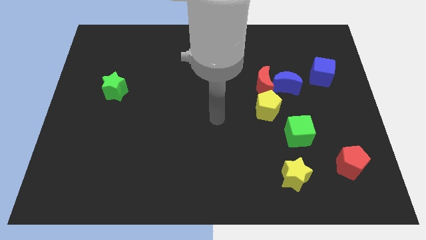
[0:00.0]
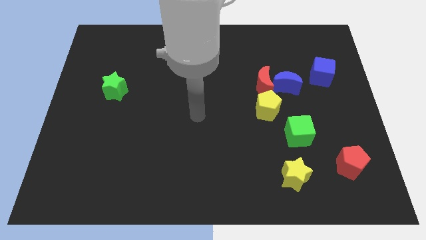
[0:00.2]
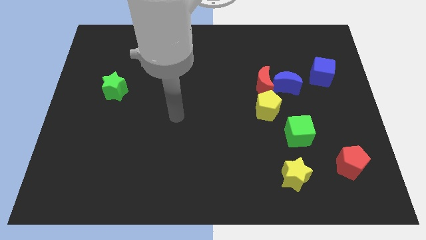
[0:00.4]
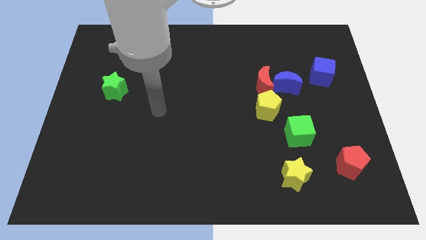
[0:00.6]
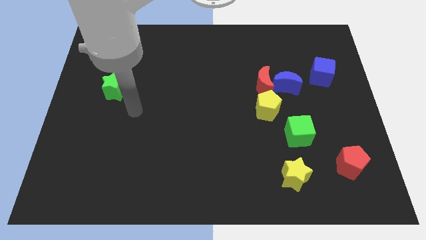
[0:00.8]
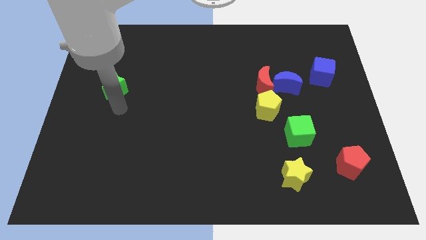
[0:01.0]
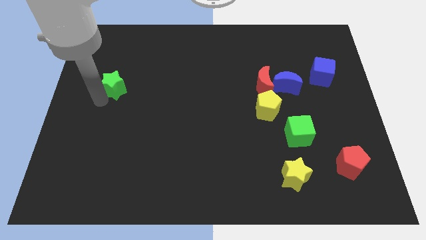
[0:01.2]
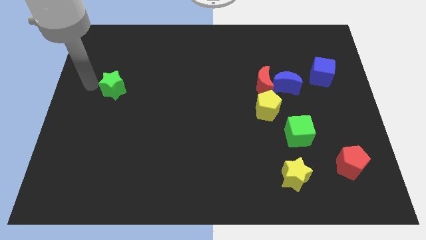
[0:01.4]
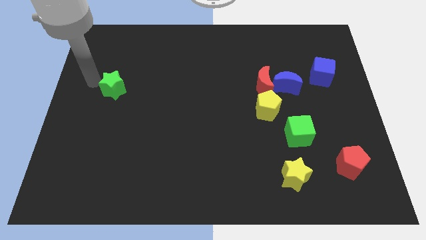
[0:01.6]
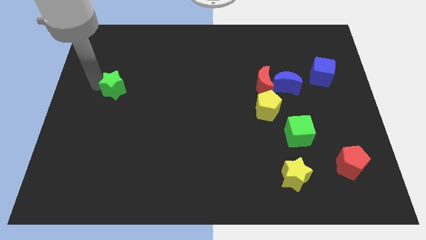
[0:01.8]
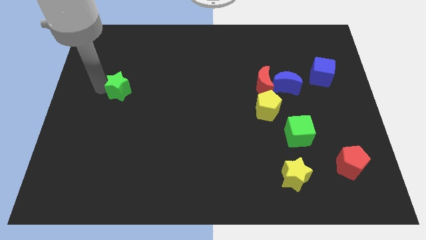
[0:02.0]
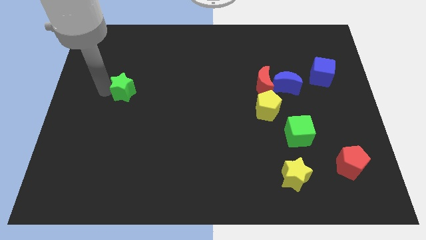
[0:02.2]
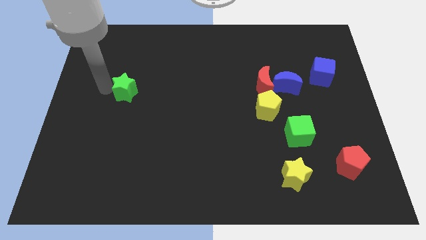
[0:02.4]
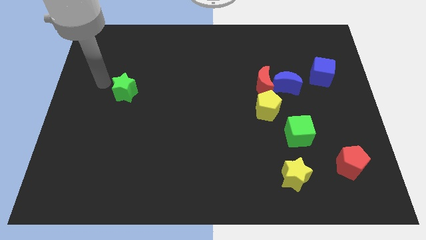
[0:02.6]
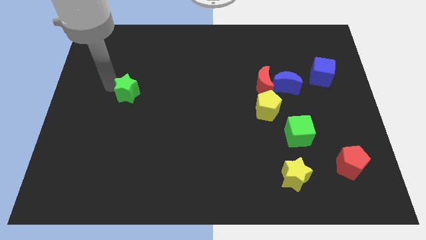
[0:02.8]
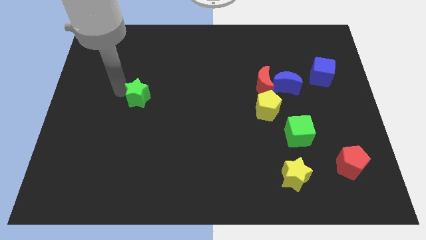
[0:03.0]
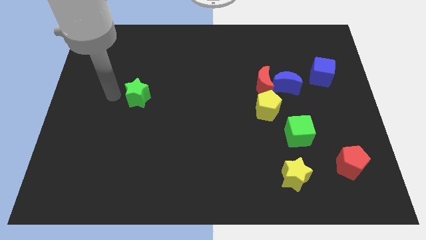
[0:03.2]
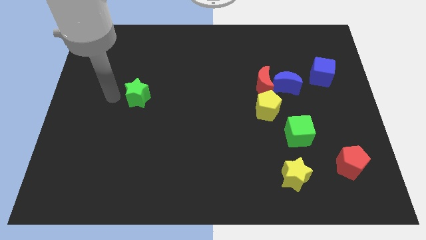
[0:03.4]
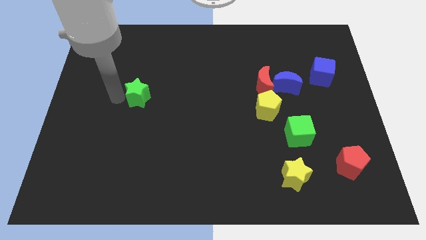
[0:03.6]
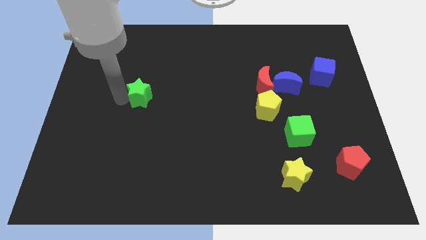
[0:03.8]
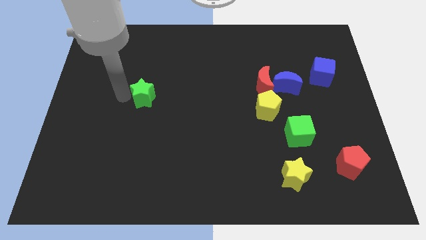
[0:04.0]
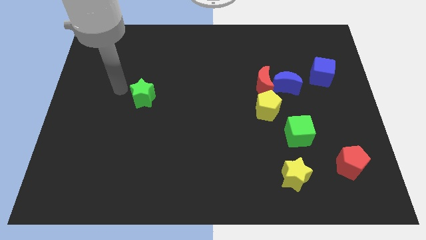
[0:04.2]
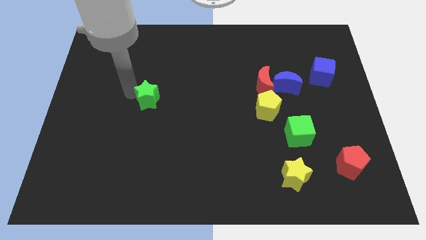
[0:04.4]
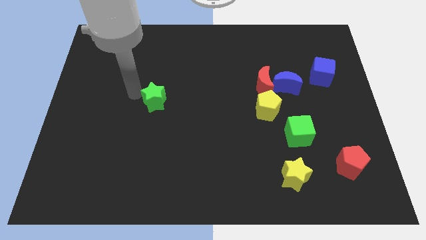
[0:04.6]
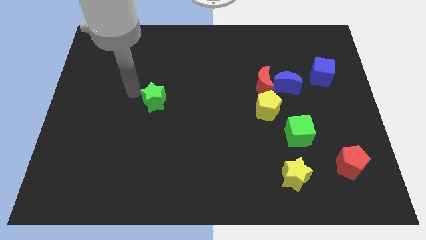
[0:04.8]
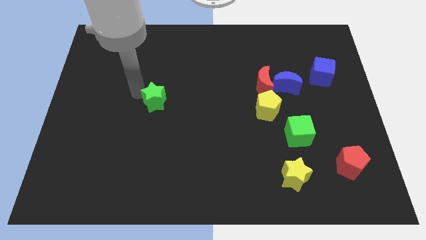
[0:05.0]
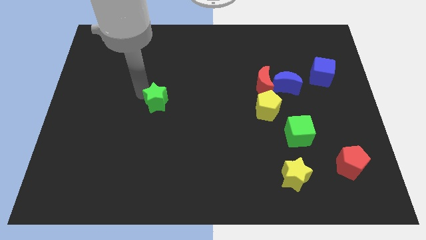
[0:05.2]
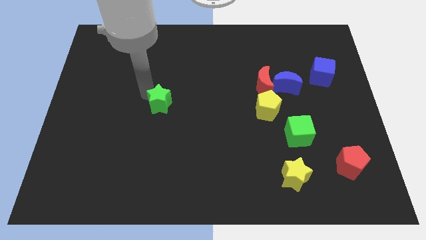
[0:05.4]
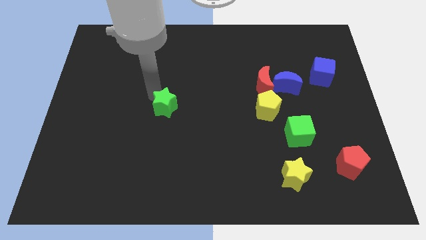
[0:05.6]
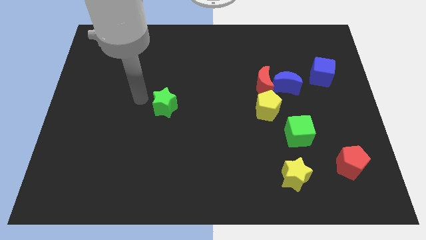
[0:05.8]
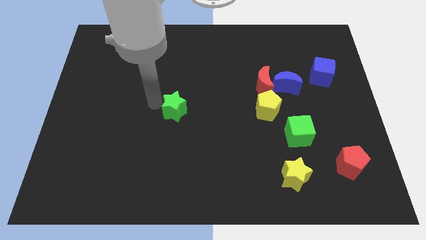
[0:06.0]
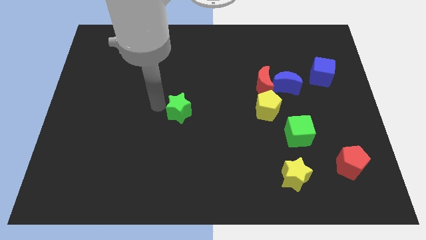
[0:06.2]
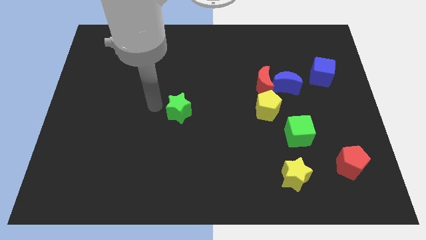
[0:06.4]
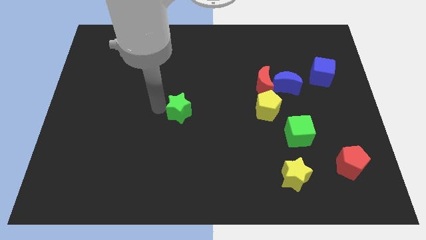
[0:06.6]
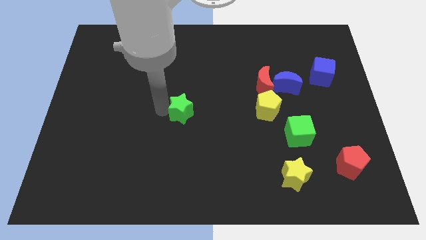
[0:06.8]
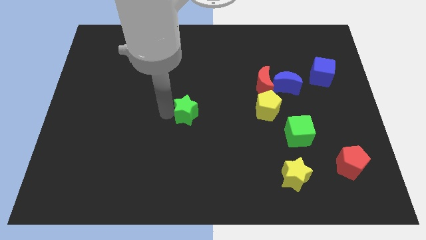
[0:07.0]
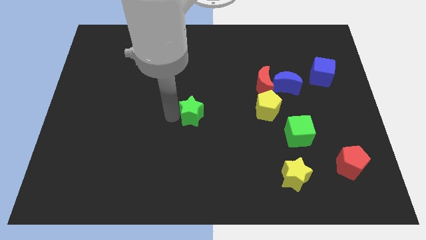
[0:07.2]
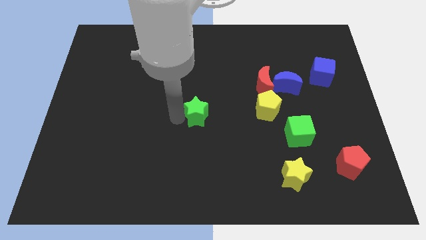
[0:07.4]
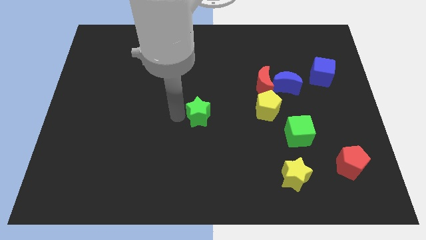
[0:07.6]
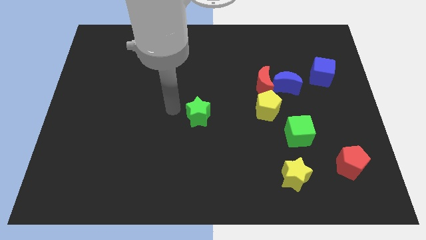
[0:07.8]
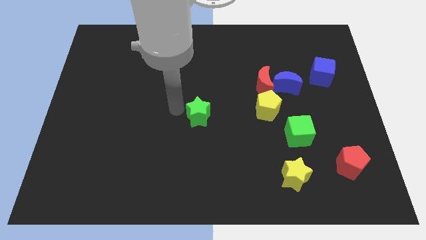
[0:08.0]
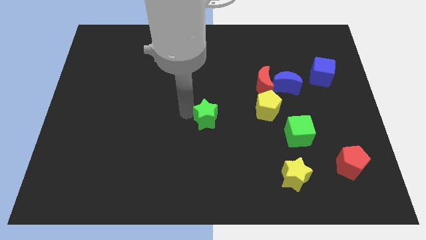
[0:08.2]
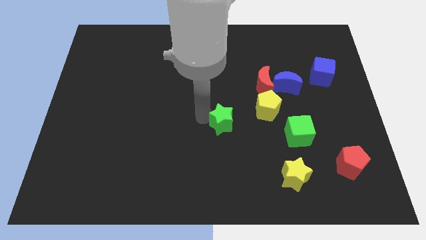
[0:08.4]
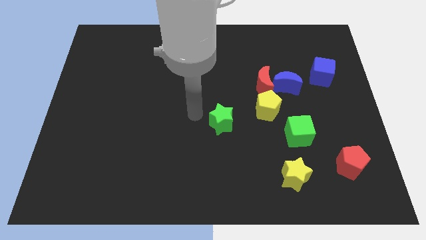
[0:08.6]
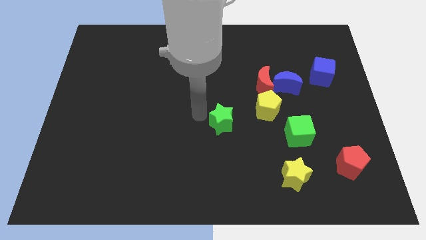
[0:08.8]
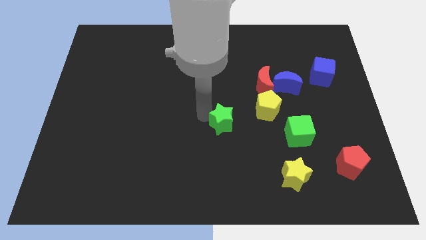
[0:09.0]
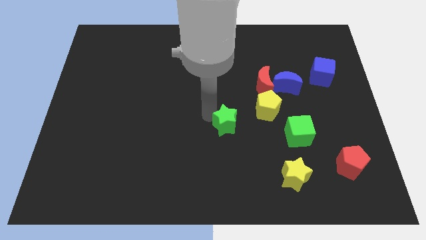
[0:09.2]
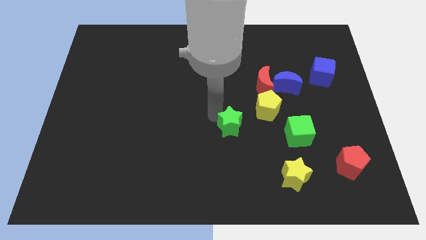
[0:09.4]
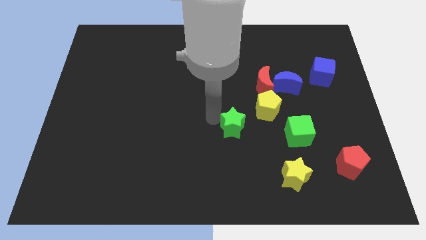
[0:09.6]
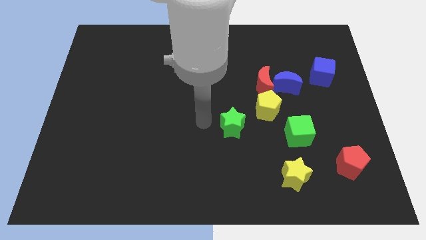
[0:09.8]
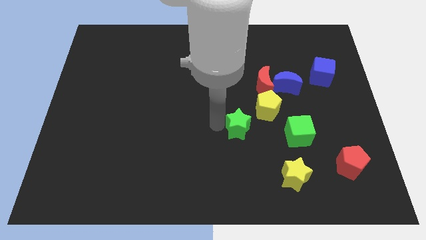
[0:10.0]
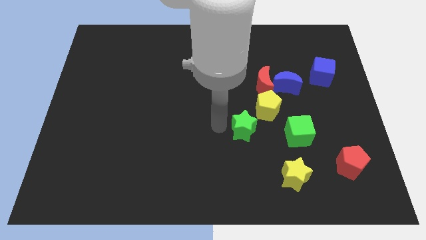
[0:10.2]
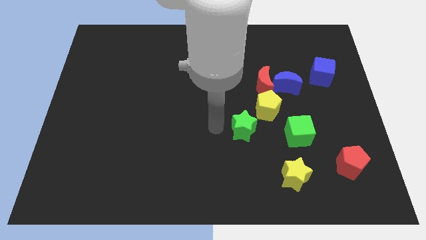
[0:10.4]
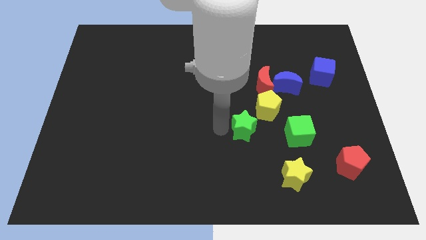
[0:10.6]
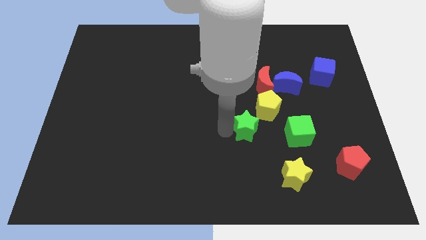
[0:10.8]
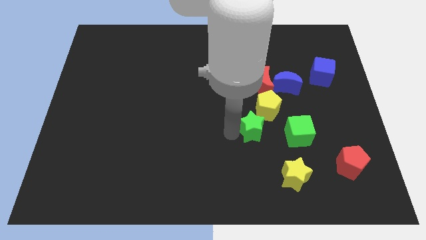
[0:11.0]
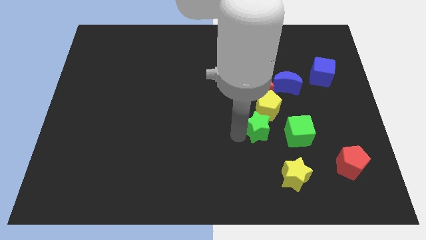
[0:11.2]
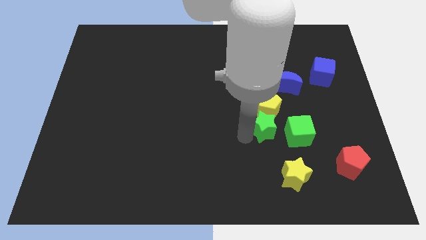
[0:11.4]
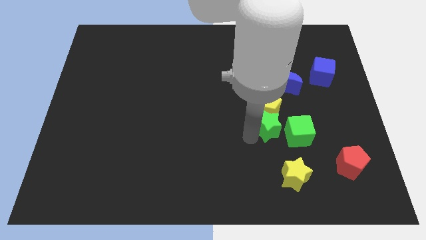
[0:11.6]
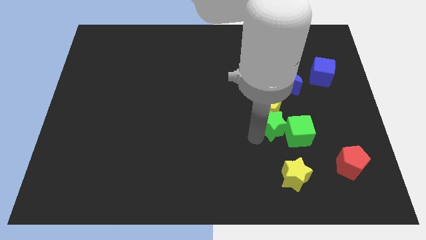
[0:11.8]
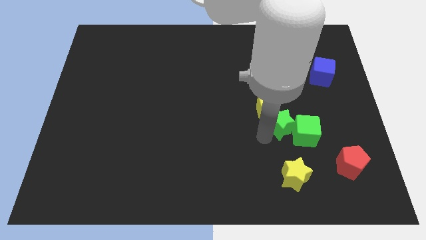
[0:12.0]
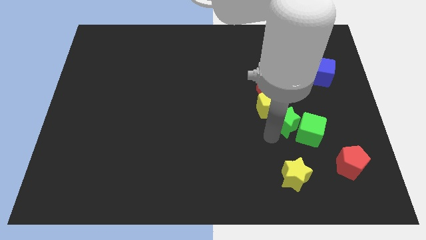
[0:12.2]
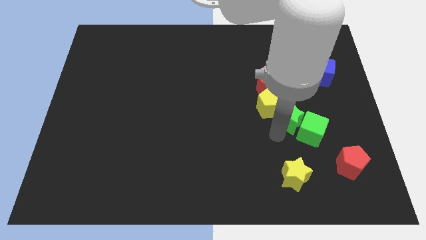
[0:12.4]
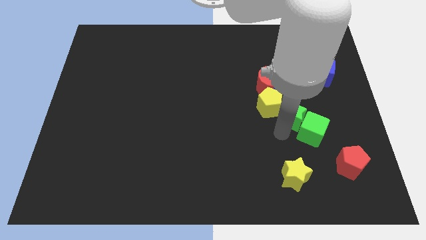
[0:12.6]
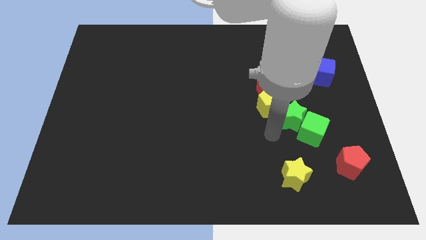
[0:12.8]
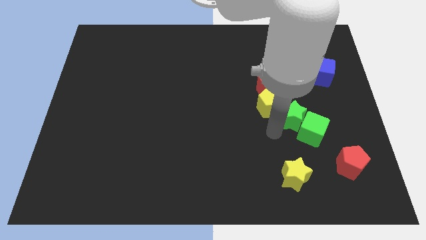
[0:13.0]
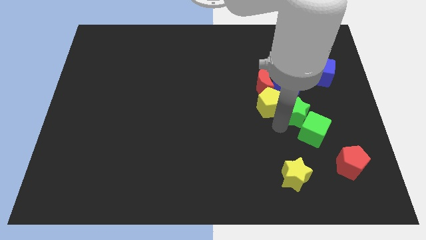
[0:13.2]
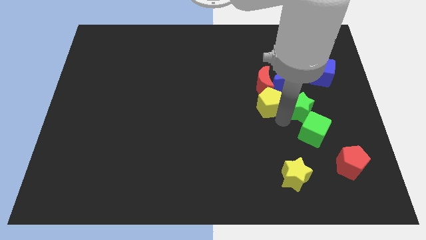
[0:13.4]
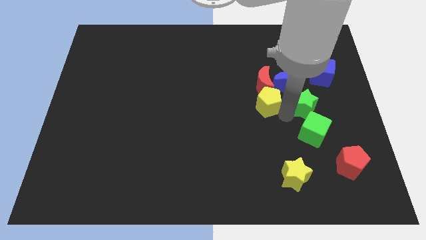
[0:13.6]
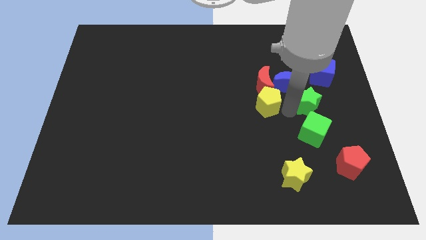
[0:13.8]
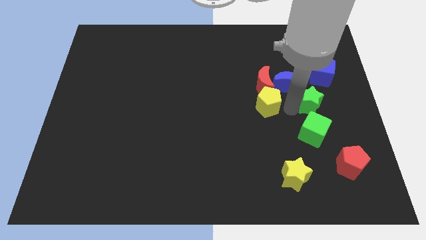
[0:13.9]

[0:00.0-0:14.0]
put the green star below the blue cube
